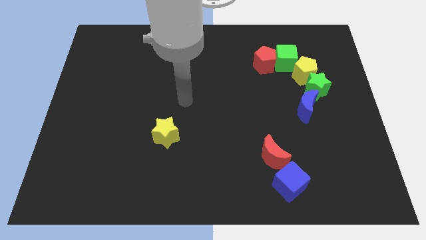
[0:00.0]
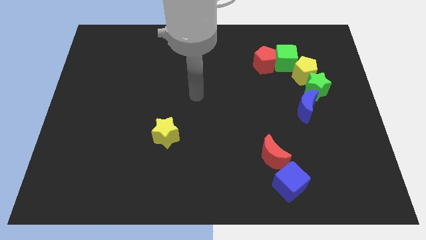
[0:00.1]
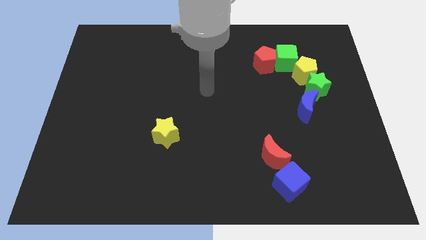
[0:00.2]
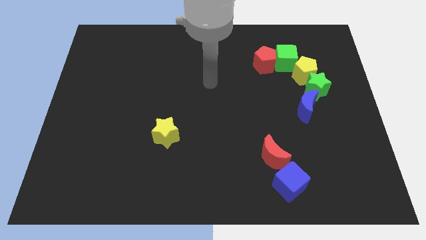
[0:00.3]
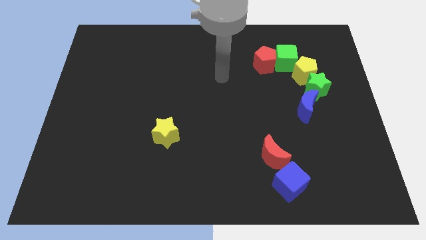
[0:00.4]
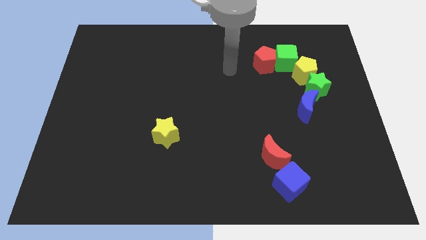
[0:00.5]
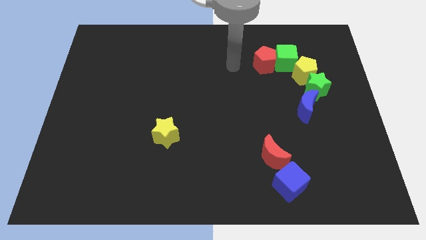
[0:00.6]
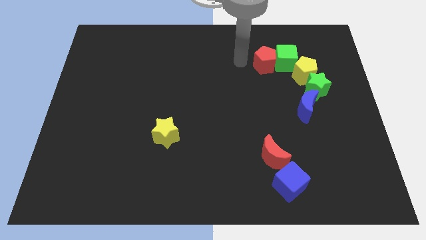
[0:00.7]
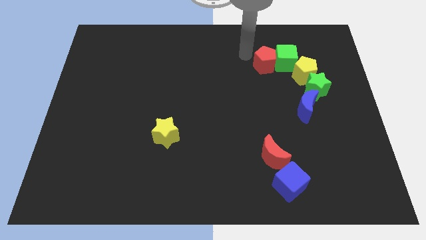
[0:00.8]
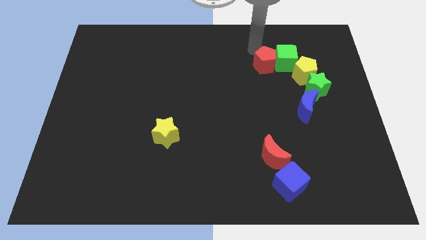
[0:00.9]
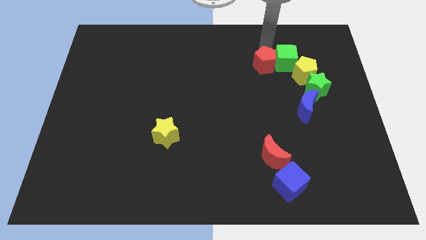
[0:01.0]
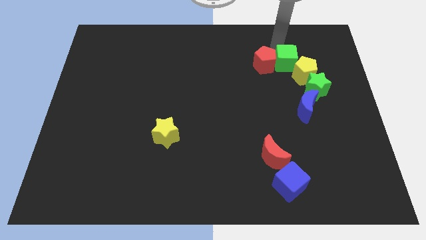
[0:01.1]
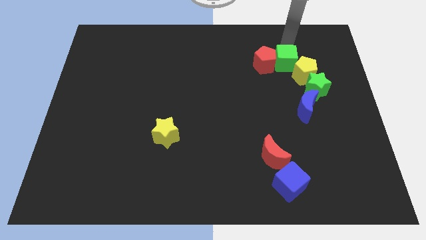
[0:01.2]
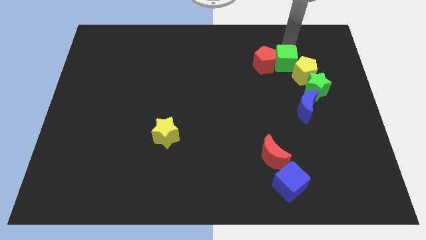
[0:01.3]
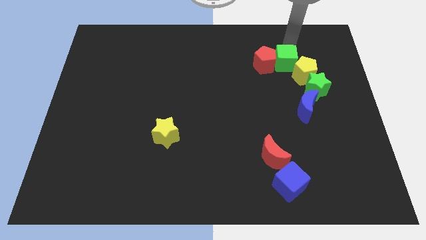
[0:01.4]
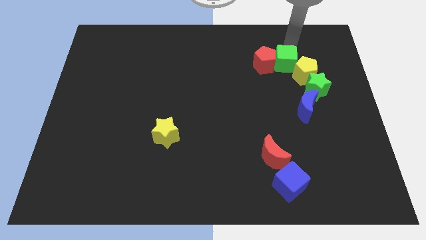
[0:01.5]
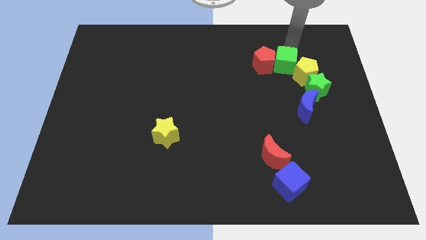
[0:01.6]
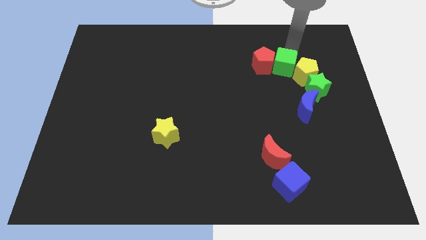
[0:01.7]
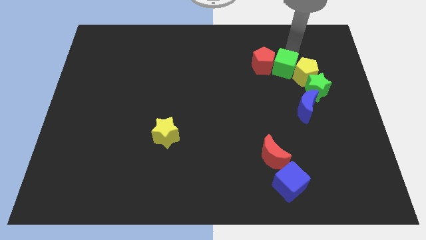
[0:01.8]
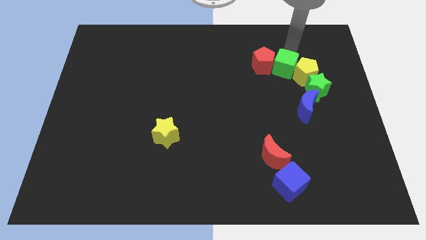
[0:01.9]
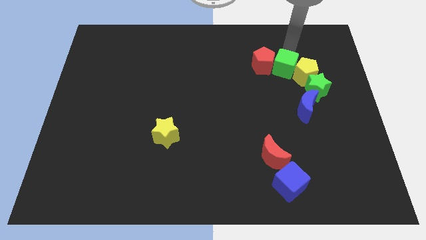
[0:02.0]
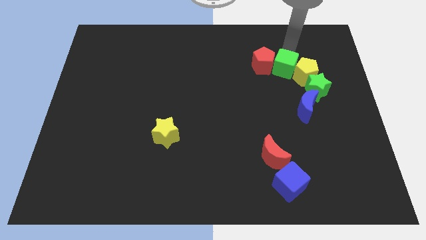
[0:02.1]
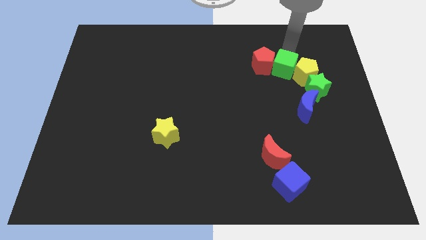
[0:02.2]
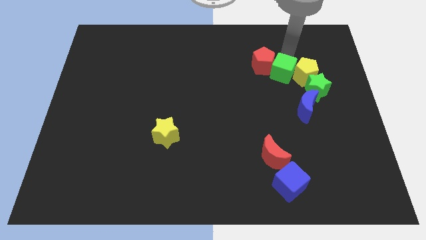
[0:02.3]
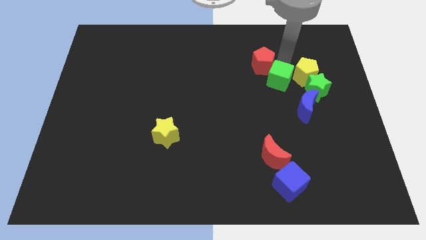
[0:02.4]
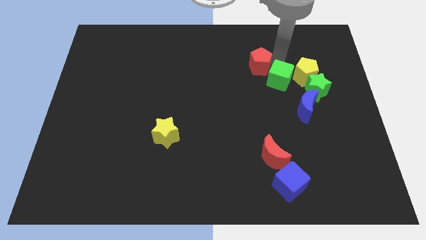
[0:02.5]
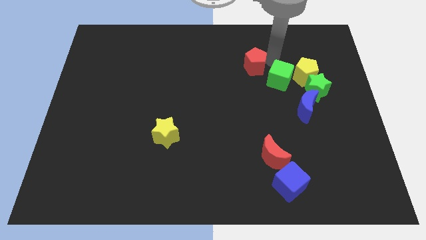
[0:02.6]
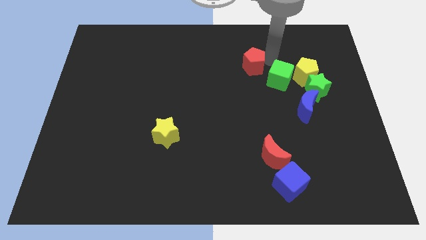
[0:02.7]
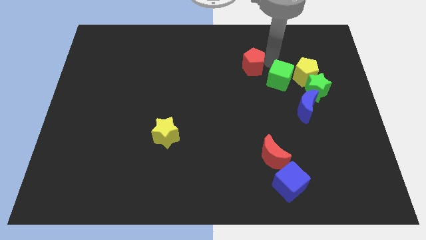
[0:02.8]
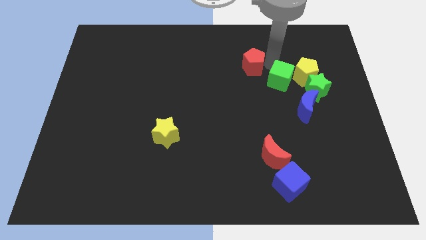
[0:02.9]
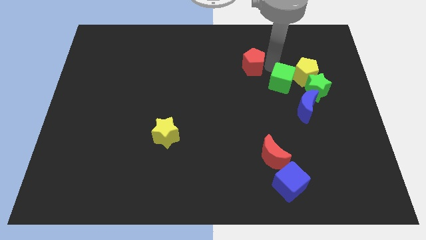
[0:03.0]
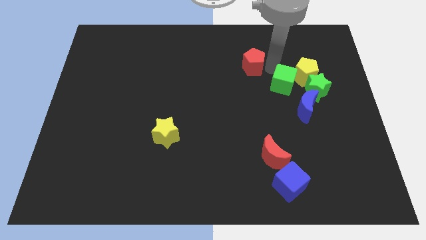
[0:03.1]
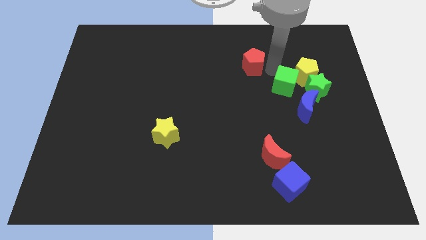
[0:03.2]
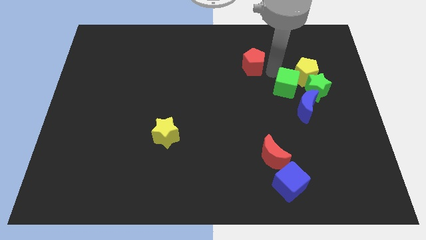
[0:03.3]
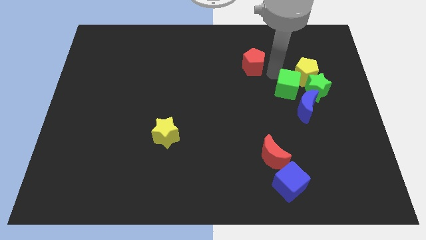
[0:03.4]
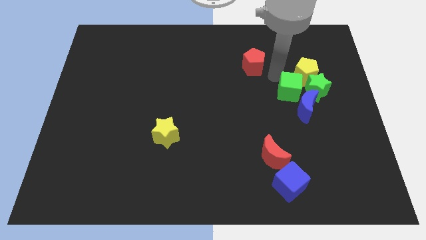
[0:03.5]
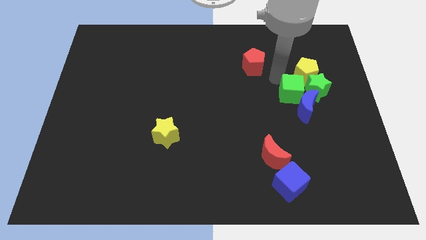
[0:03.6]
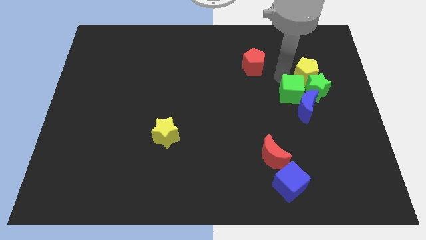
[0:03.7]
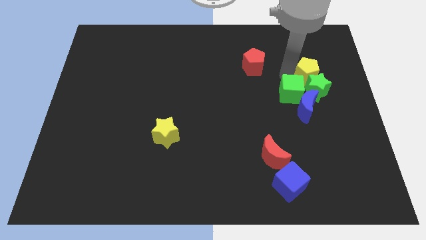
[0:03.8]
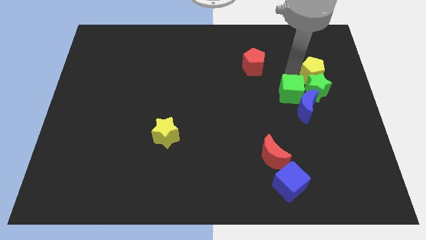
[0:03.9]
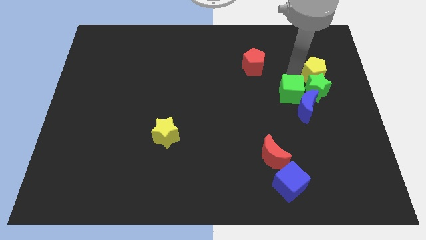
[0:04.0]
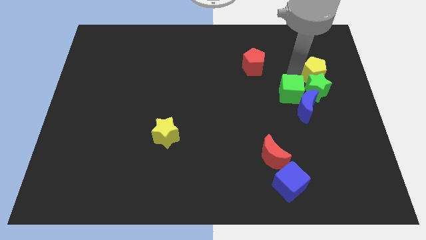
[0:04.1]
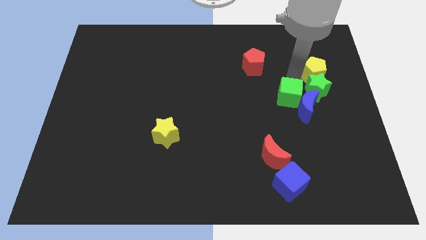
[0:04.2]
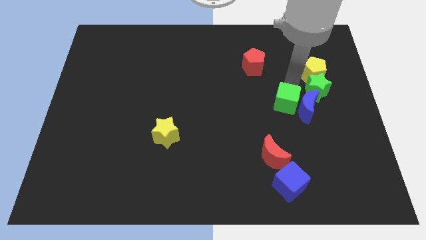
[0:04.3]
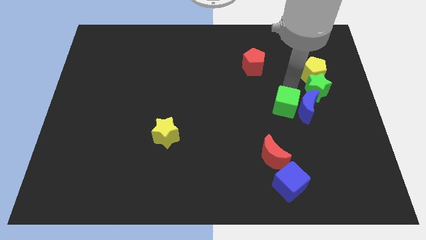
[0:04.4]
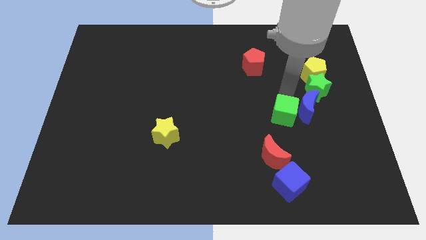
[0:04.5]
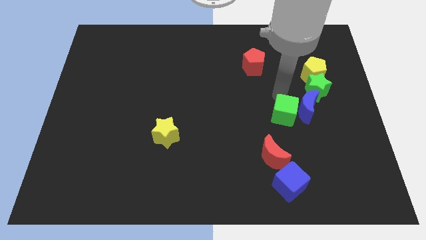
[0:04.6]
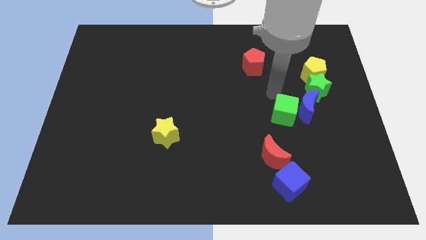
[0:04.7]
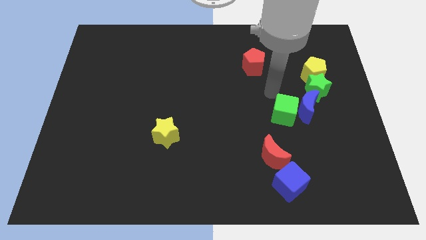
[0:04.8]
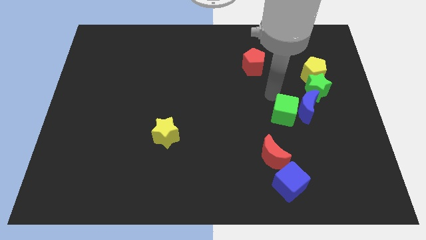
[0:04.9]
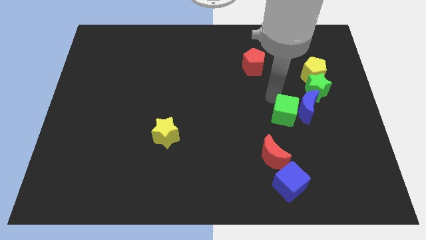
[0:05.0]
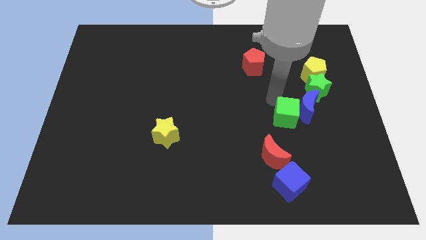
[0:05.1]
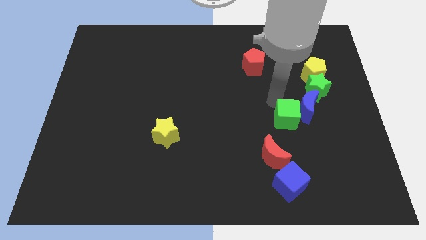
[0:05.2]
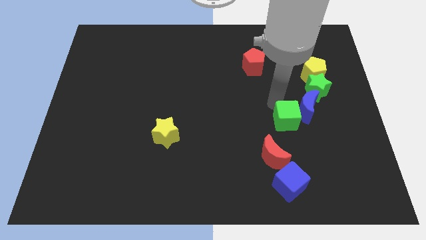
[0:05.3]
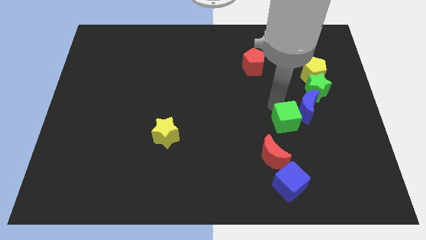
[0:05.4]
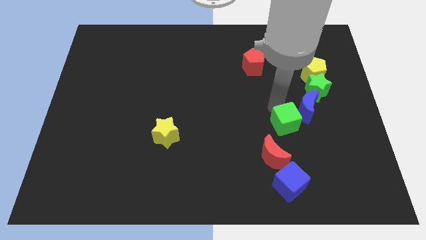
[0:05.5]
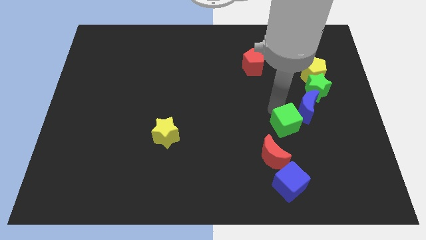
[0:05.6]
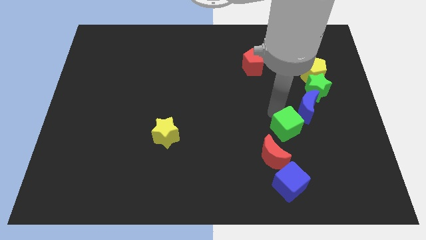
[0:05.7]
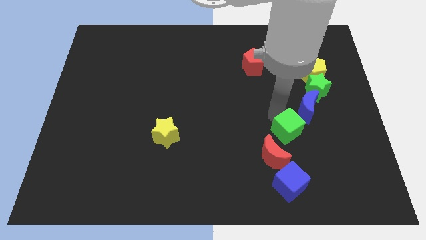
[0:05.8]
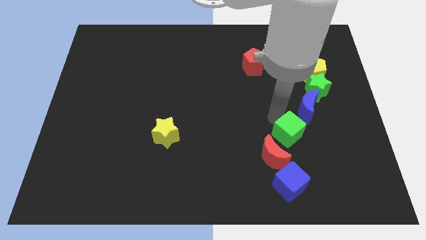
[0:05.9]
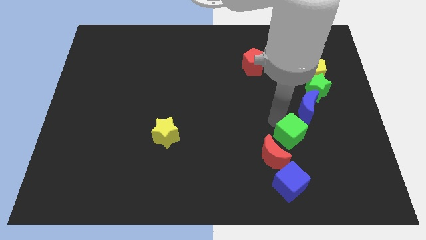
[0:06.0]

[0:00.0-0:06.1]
slide the green cube below the blue moon

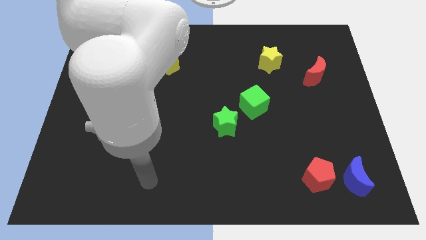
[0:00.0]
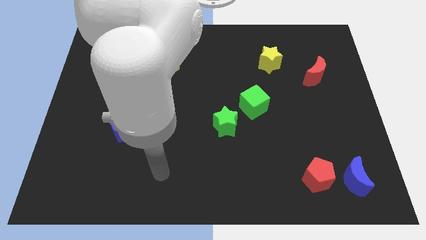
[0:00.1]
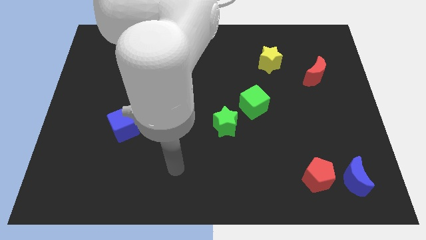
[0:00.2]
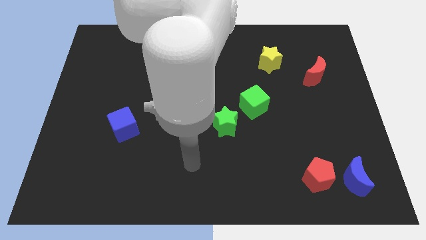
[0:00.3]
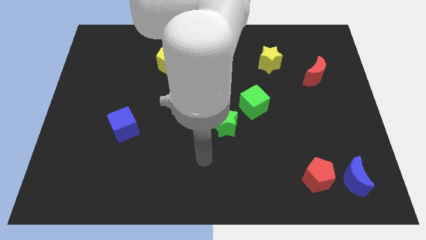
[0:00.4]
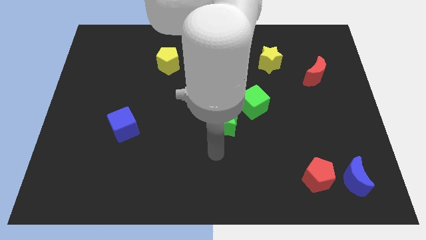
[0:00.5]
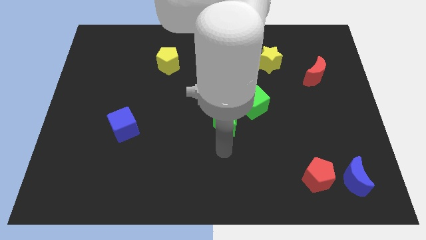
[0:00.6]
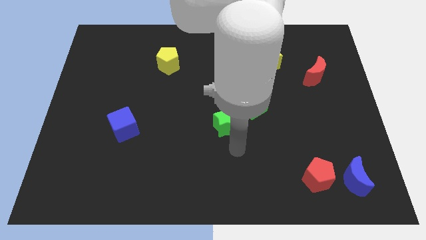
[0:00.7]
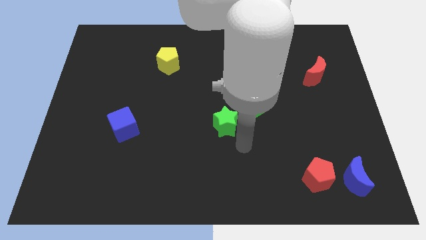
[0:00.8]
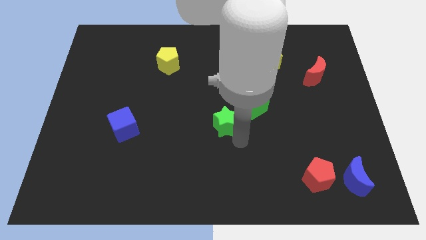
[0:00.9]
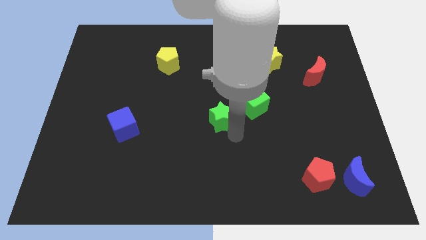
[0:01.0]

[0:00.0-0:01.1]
push the green star to the left side of the green cube
